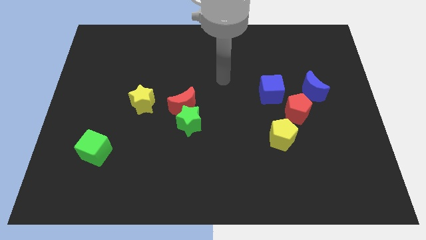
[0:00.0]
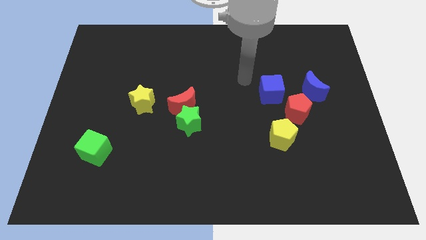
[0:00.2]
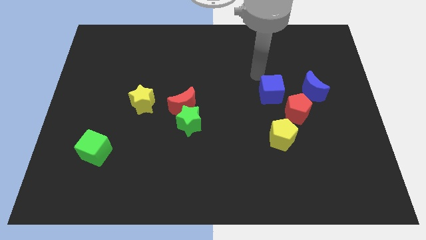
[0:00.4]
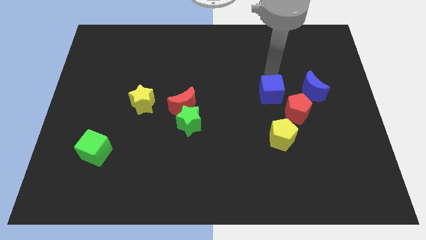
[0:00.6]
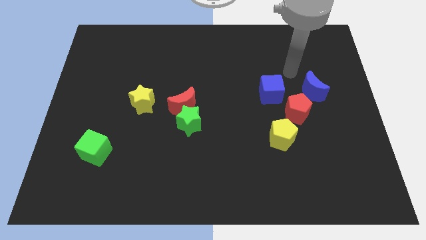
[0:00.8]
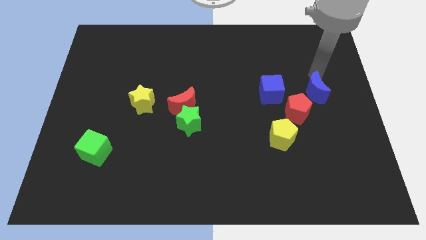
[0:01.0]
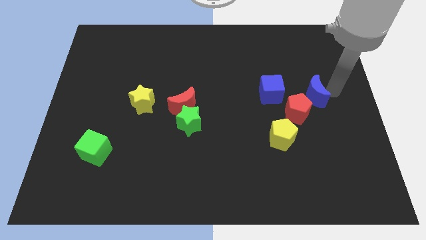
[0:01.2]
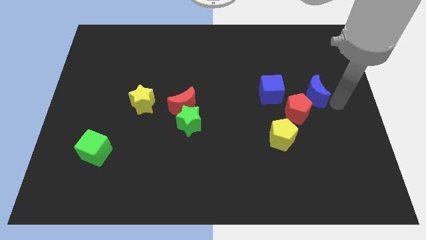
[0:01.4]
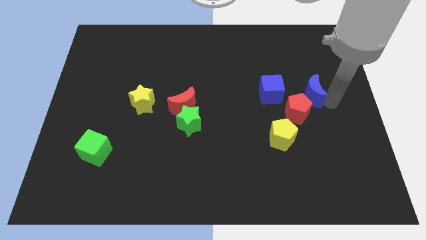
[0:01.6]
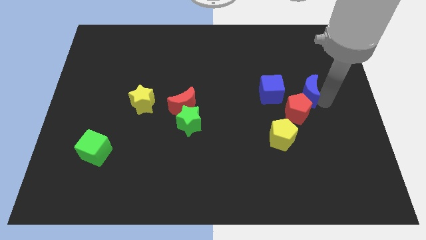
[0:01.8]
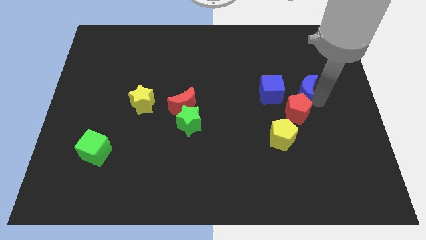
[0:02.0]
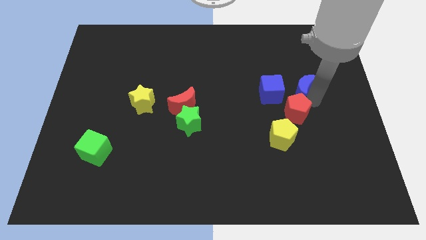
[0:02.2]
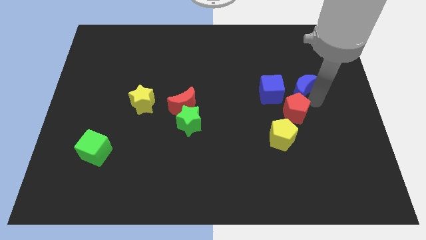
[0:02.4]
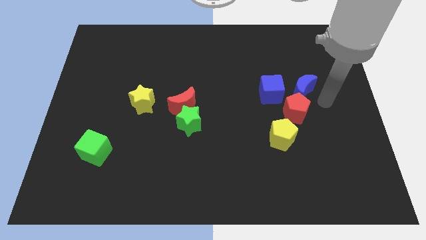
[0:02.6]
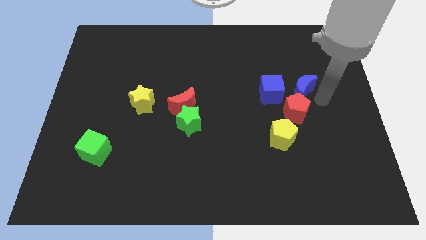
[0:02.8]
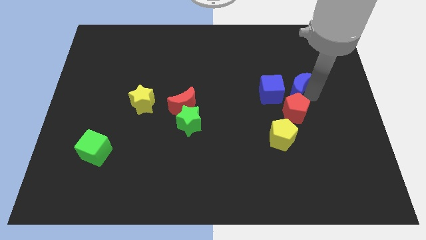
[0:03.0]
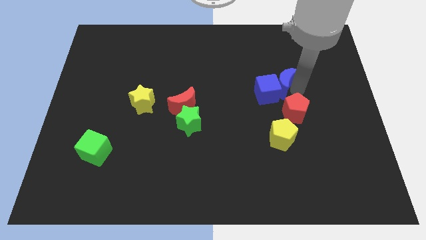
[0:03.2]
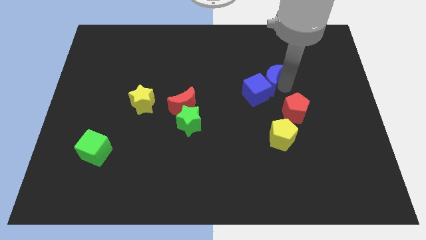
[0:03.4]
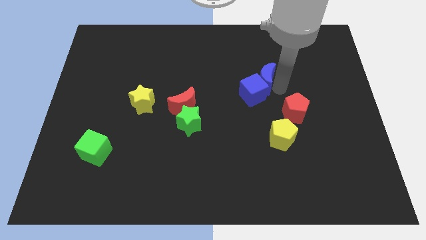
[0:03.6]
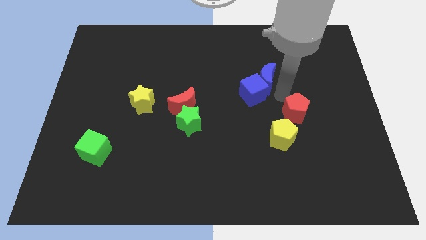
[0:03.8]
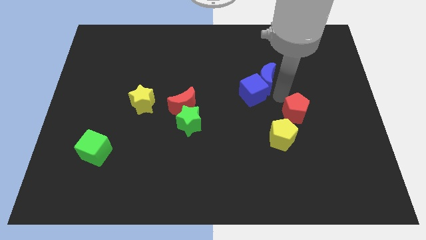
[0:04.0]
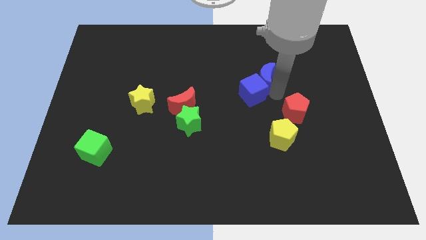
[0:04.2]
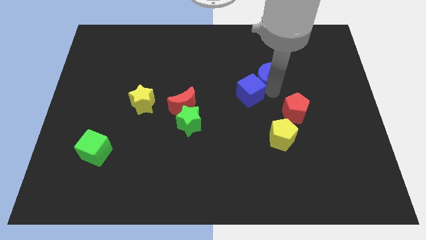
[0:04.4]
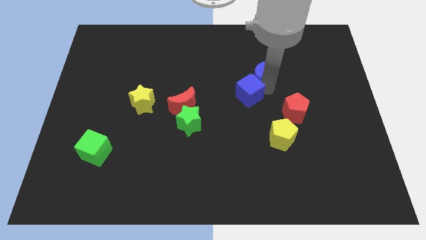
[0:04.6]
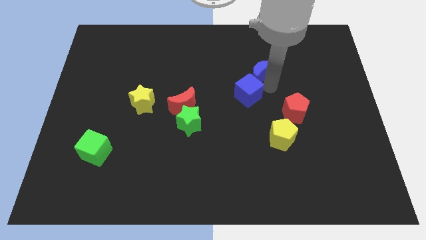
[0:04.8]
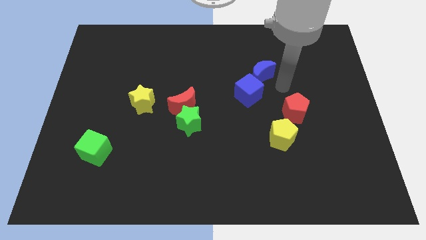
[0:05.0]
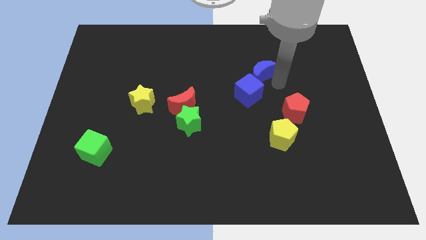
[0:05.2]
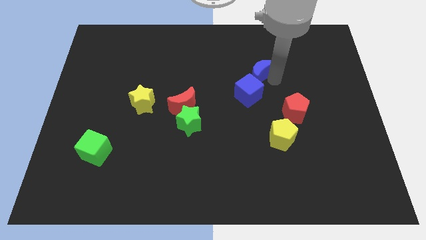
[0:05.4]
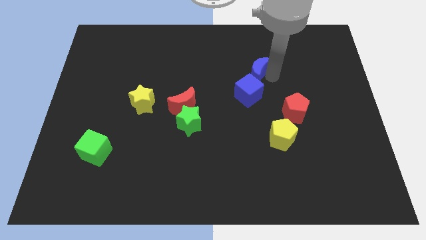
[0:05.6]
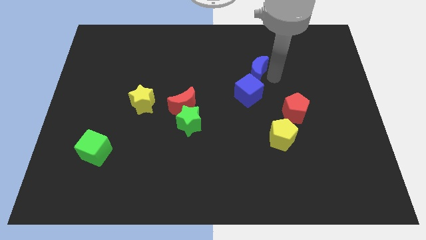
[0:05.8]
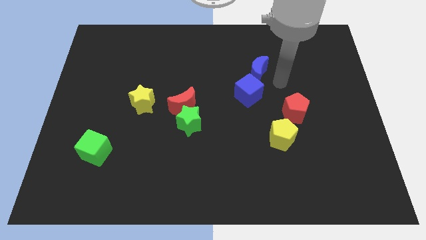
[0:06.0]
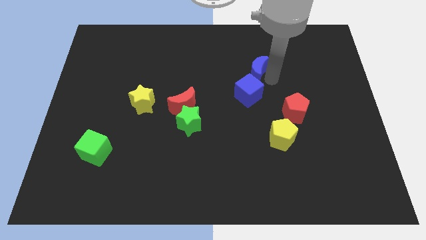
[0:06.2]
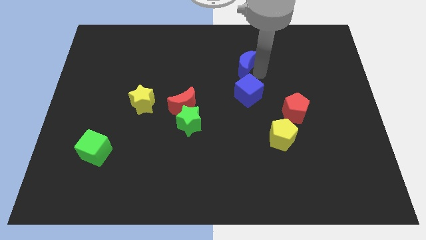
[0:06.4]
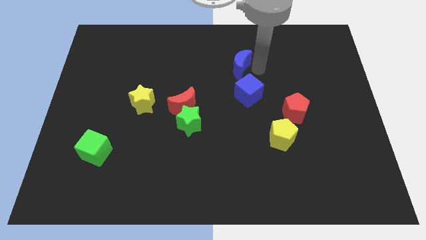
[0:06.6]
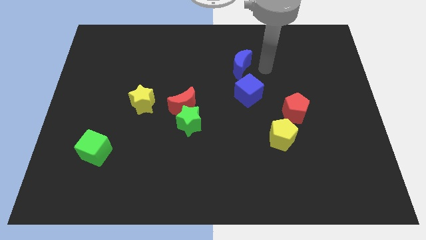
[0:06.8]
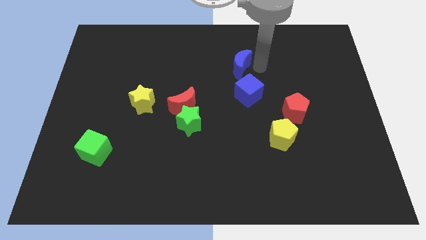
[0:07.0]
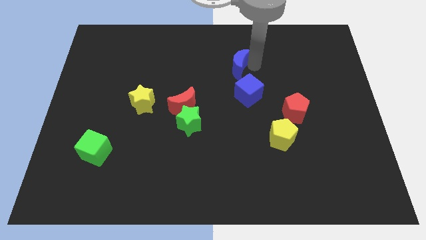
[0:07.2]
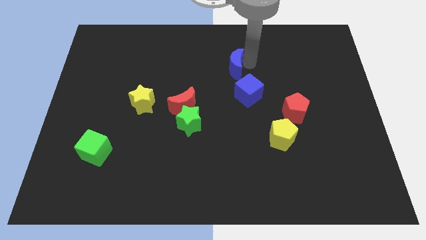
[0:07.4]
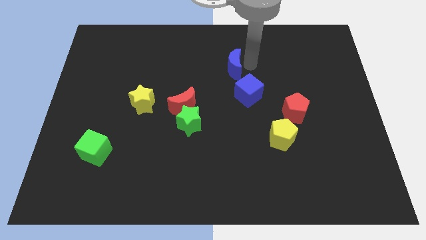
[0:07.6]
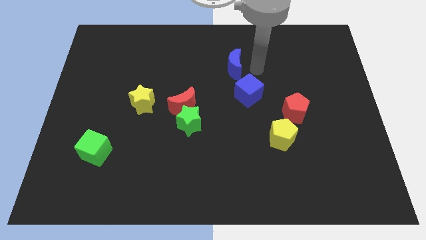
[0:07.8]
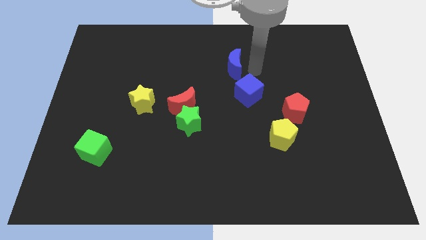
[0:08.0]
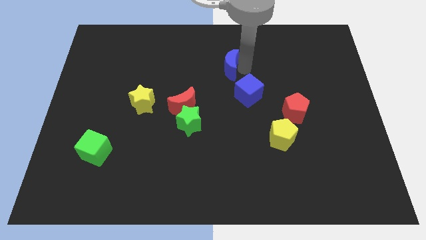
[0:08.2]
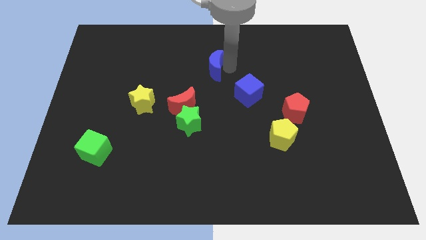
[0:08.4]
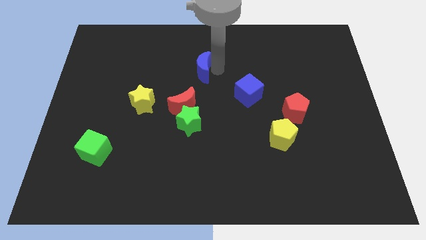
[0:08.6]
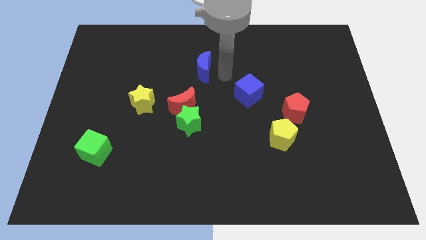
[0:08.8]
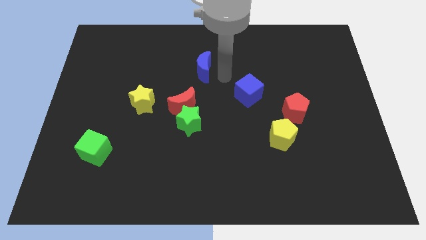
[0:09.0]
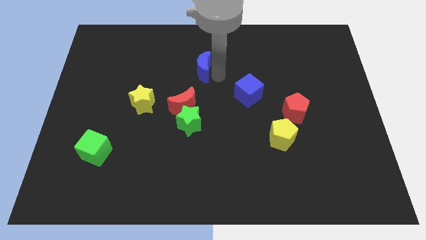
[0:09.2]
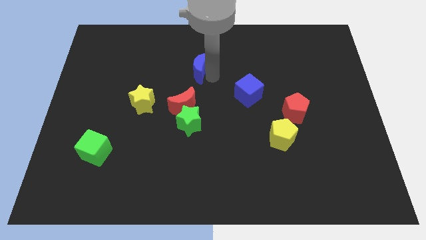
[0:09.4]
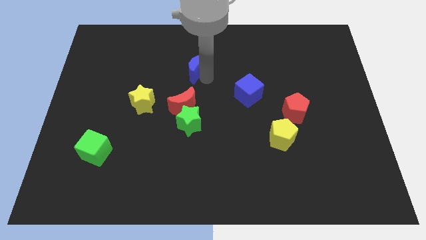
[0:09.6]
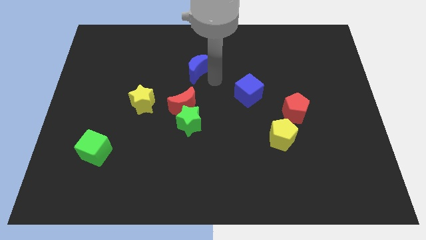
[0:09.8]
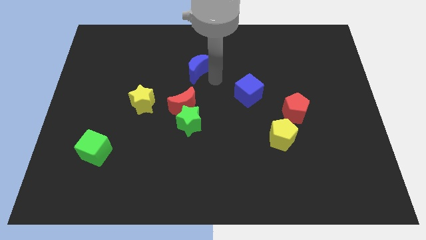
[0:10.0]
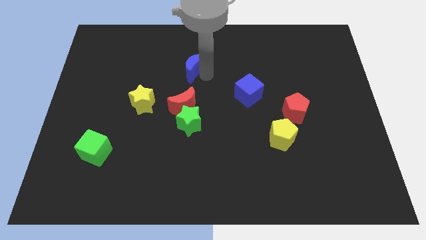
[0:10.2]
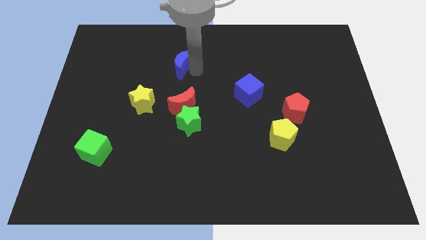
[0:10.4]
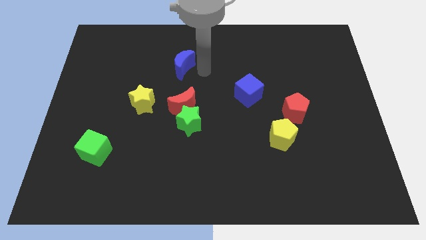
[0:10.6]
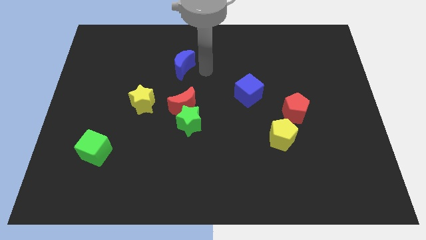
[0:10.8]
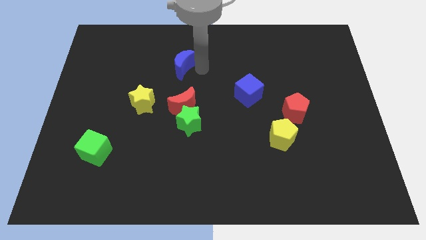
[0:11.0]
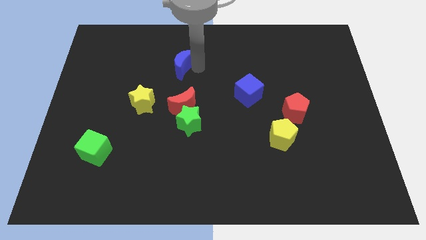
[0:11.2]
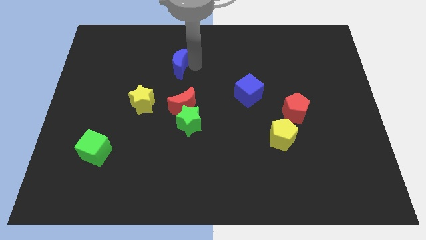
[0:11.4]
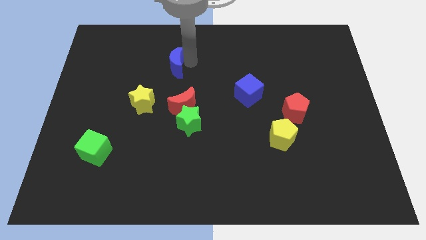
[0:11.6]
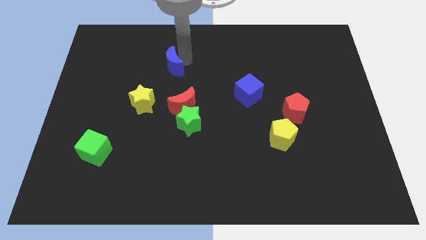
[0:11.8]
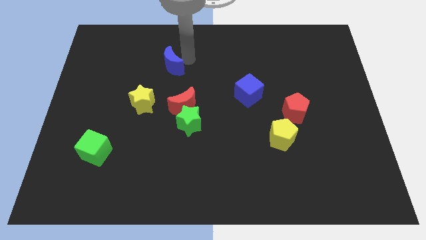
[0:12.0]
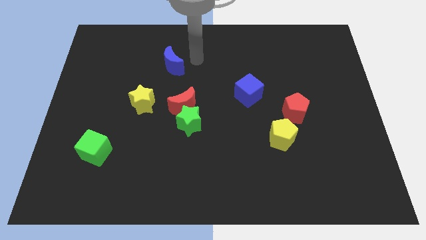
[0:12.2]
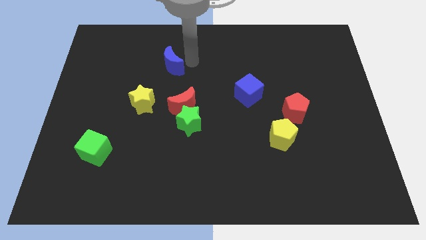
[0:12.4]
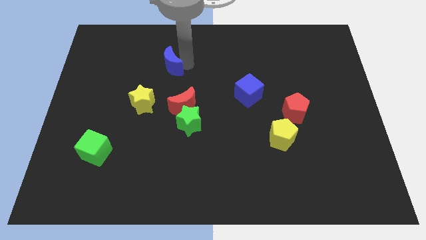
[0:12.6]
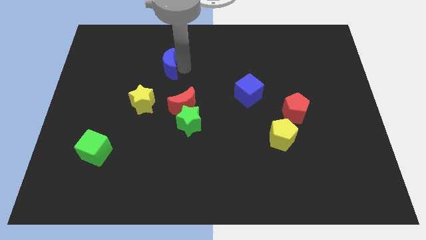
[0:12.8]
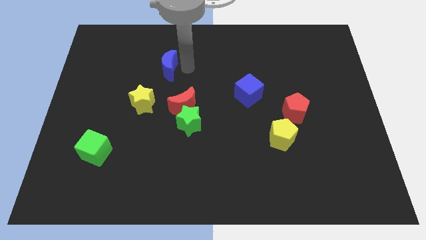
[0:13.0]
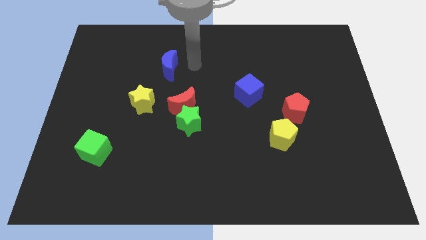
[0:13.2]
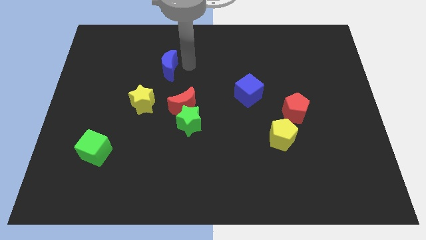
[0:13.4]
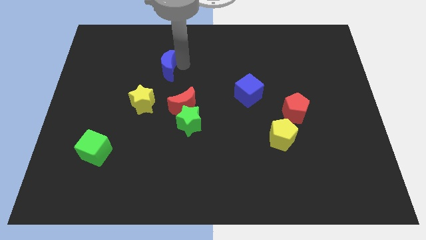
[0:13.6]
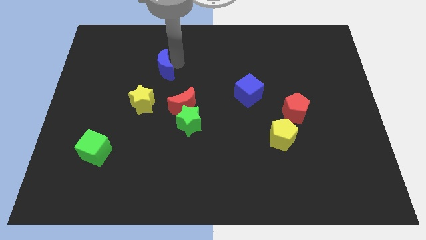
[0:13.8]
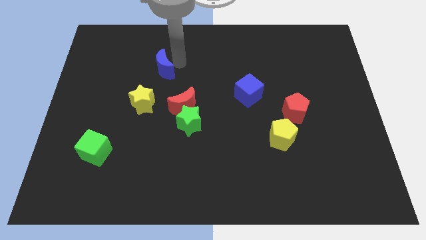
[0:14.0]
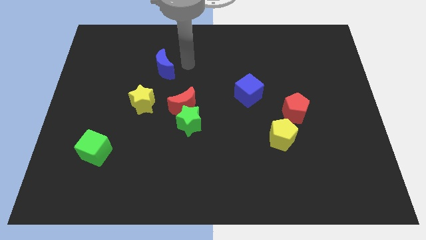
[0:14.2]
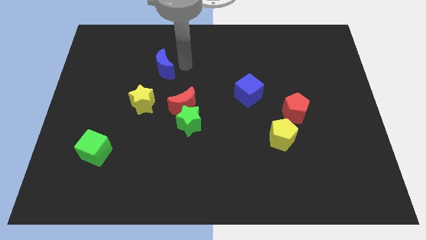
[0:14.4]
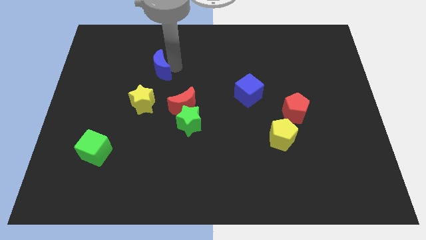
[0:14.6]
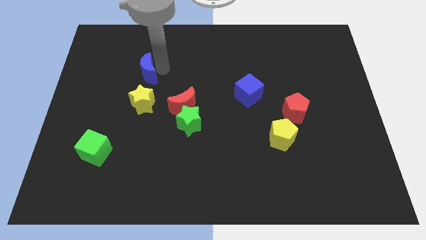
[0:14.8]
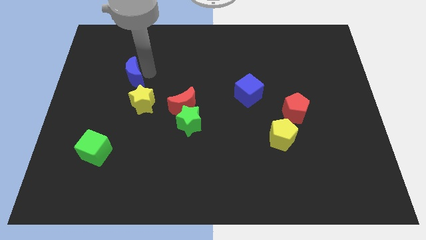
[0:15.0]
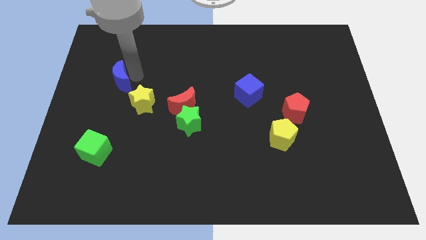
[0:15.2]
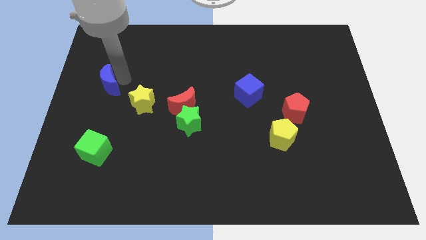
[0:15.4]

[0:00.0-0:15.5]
push the blue moon to the center left
